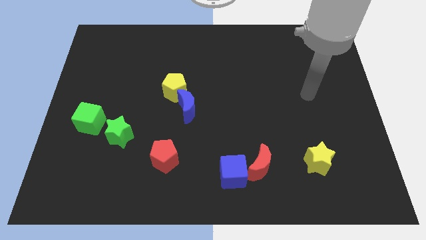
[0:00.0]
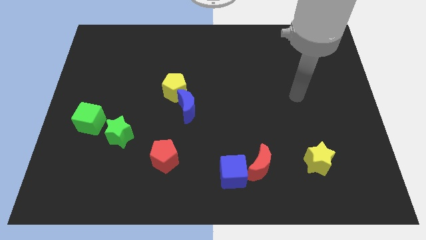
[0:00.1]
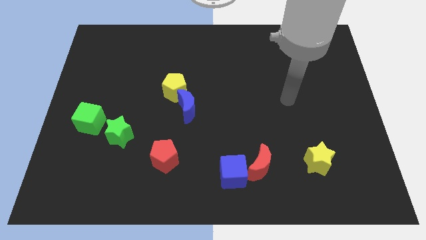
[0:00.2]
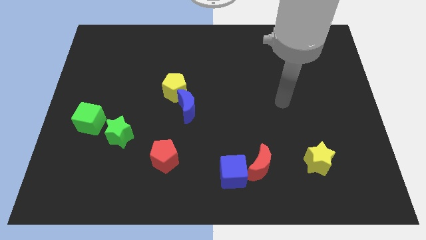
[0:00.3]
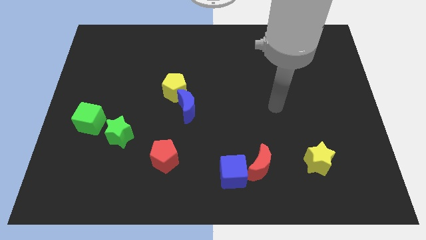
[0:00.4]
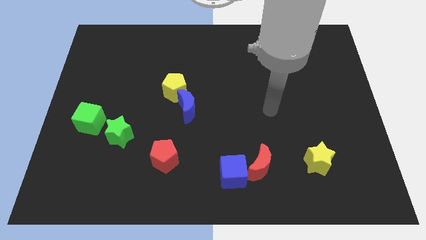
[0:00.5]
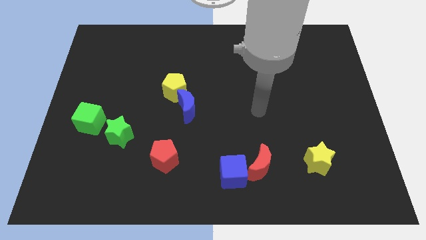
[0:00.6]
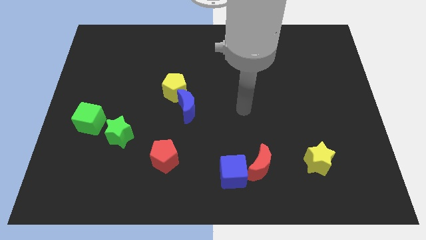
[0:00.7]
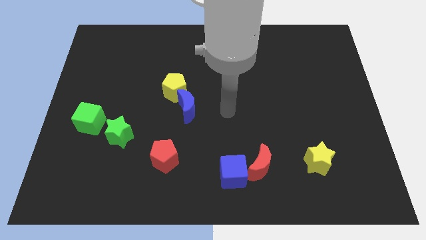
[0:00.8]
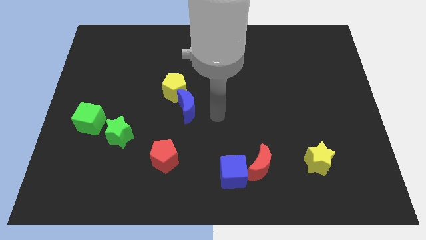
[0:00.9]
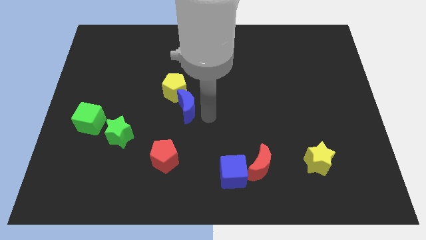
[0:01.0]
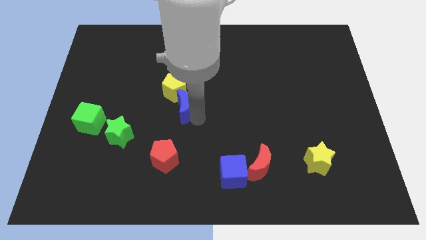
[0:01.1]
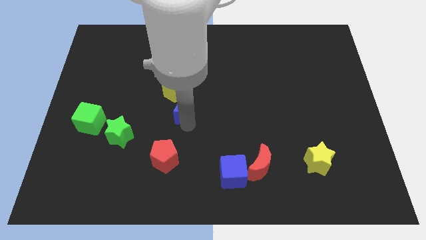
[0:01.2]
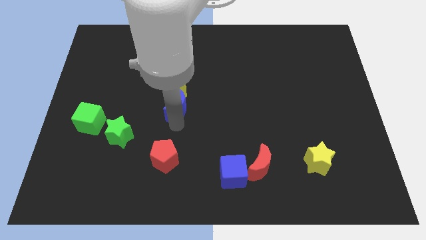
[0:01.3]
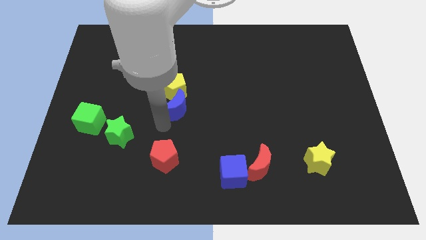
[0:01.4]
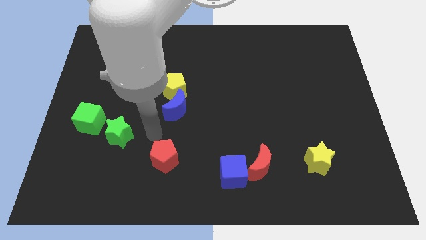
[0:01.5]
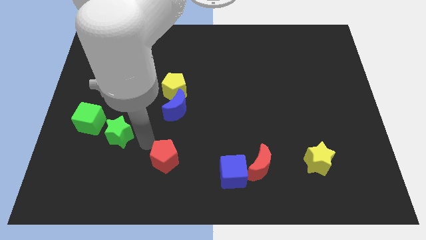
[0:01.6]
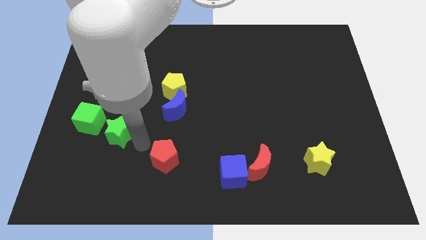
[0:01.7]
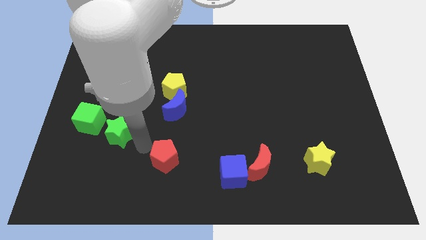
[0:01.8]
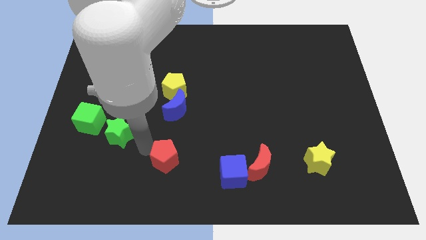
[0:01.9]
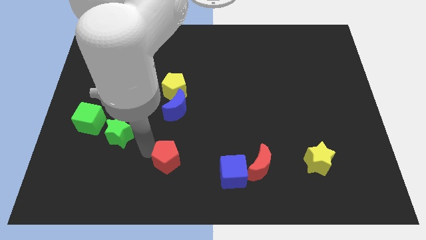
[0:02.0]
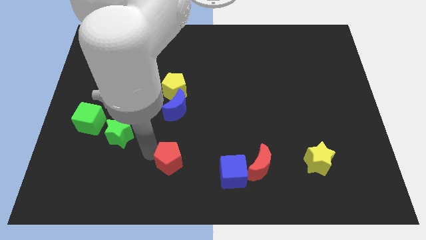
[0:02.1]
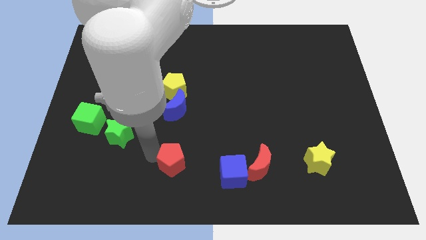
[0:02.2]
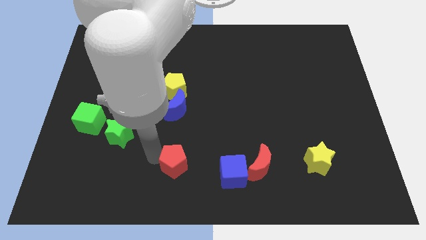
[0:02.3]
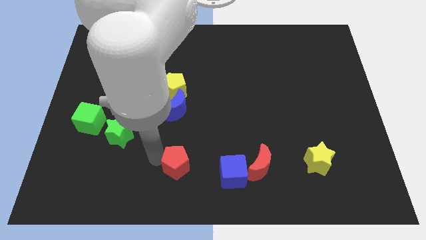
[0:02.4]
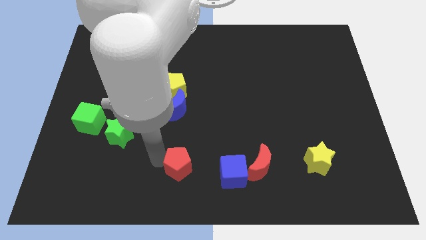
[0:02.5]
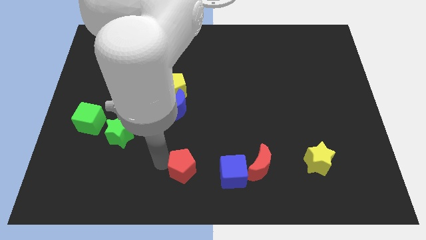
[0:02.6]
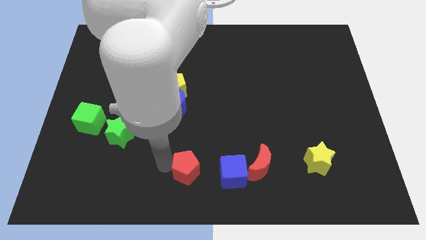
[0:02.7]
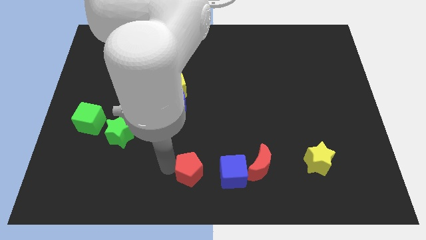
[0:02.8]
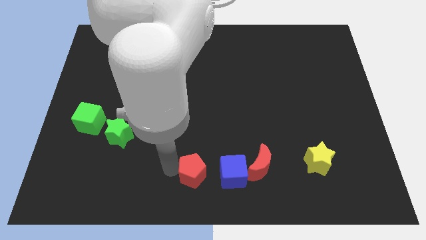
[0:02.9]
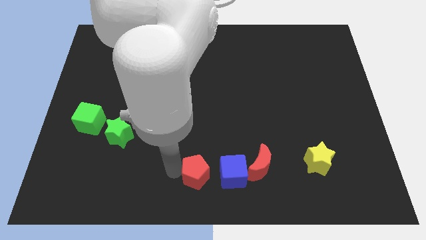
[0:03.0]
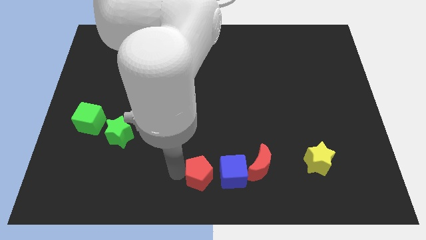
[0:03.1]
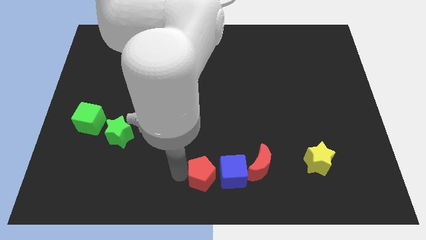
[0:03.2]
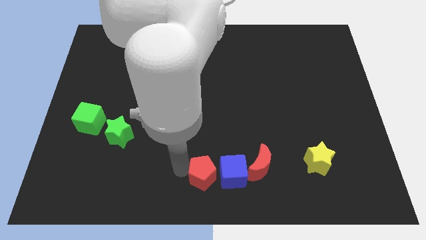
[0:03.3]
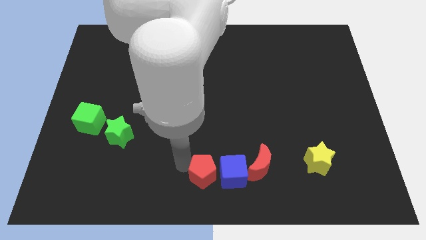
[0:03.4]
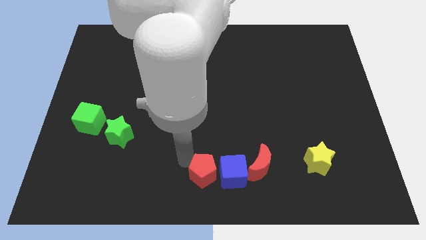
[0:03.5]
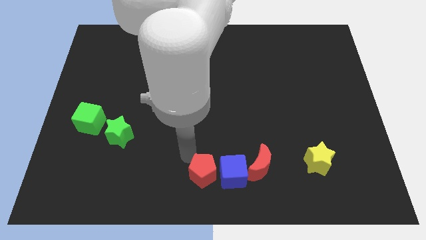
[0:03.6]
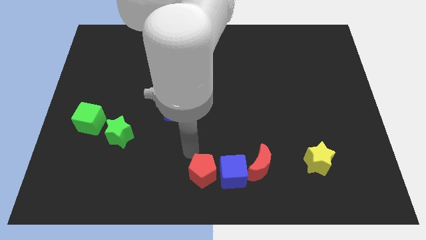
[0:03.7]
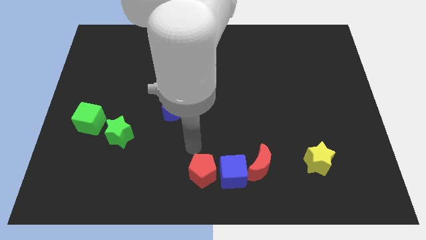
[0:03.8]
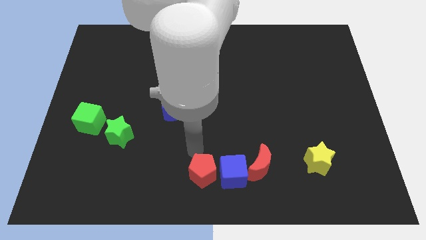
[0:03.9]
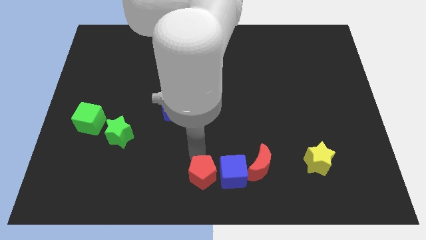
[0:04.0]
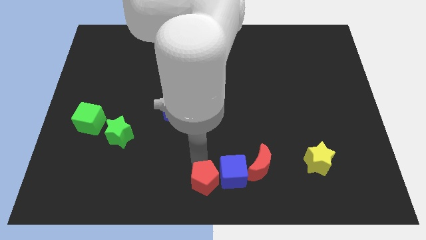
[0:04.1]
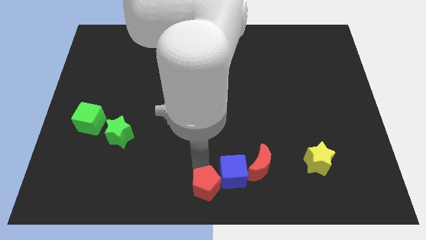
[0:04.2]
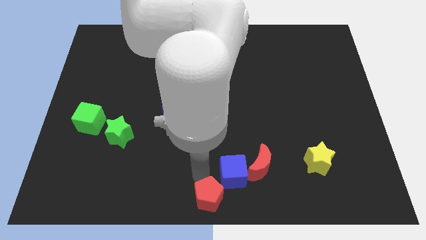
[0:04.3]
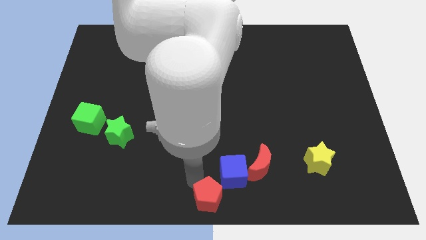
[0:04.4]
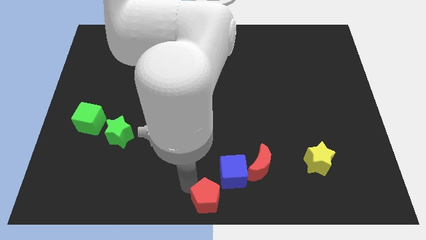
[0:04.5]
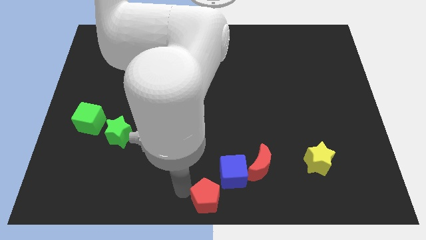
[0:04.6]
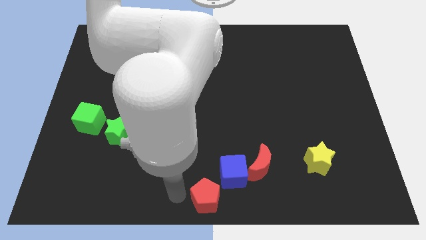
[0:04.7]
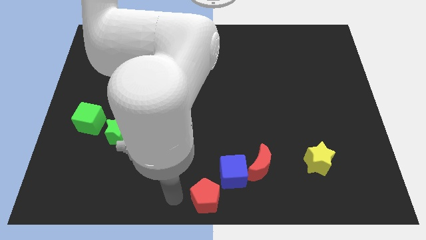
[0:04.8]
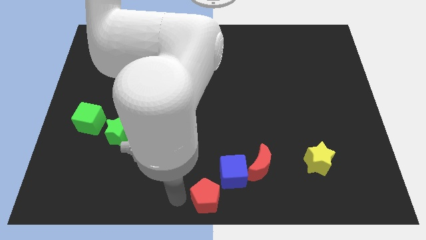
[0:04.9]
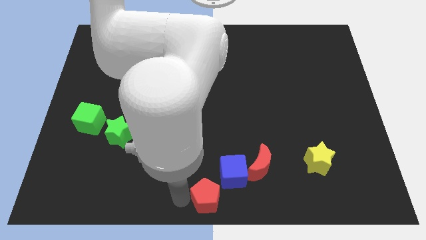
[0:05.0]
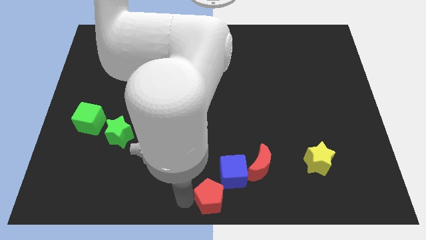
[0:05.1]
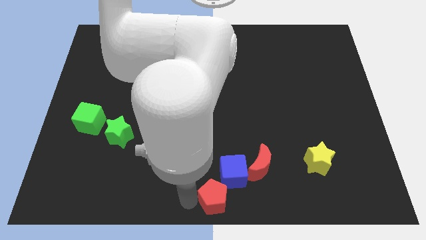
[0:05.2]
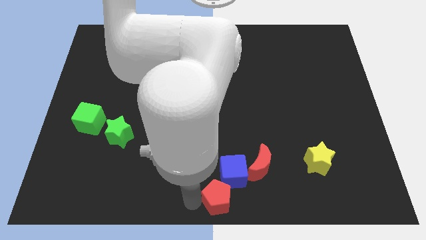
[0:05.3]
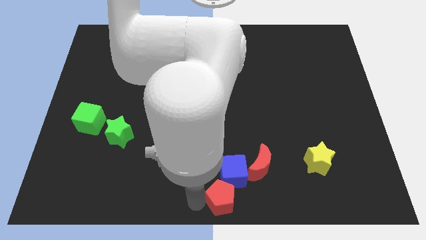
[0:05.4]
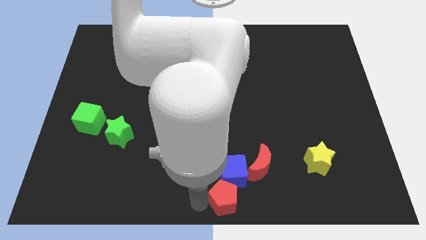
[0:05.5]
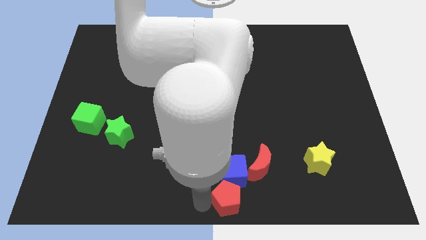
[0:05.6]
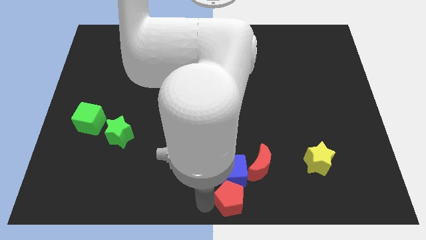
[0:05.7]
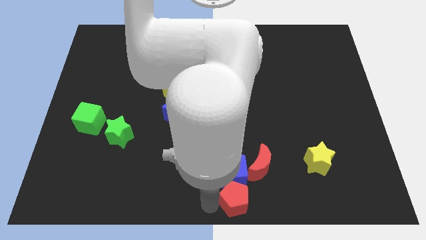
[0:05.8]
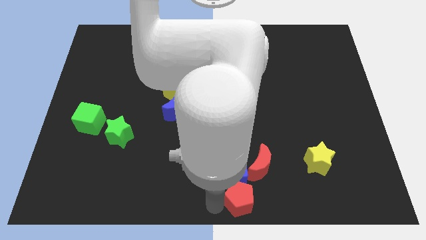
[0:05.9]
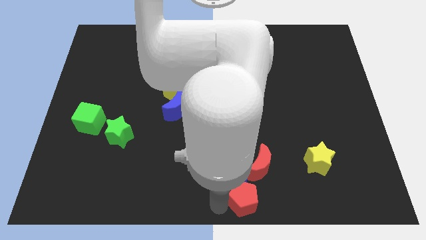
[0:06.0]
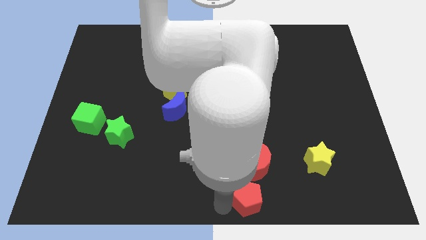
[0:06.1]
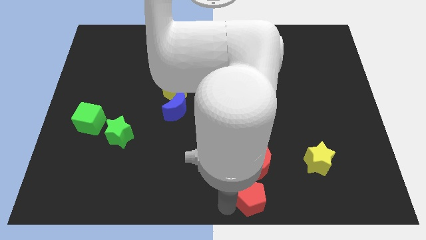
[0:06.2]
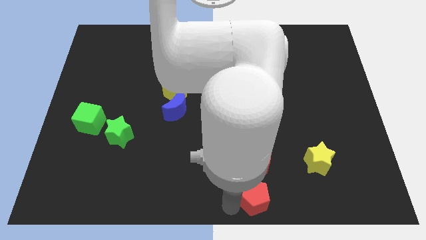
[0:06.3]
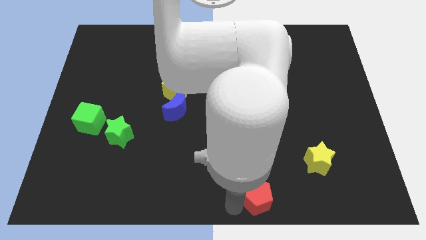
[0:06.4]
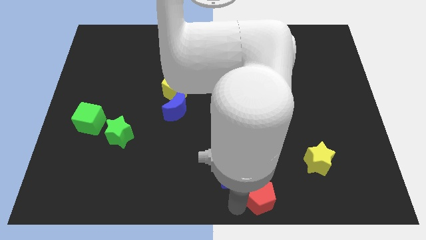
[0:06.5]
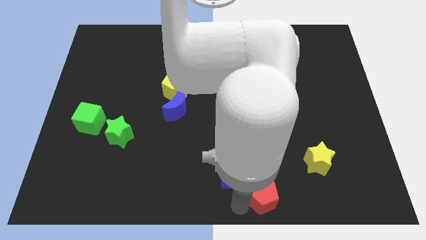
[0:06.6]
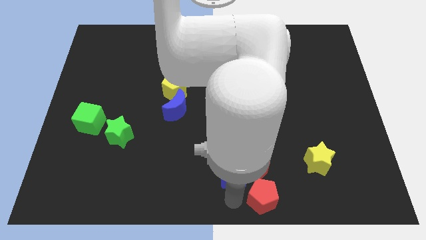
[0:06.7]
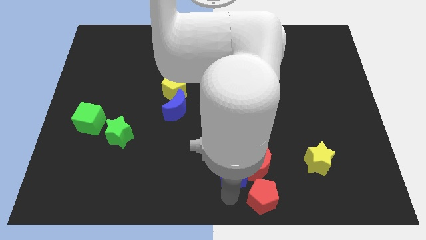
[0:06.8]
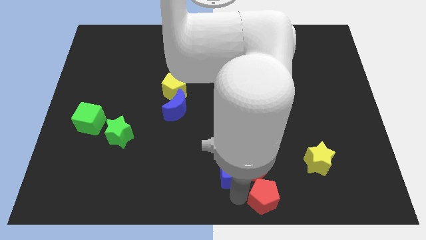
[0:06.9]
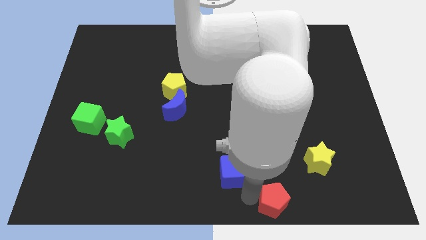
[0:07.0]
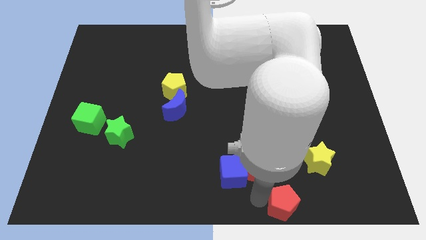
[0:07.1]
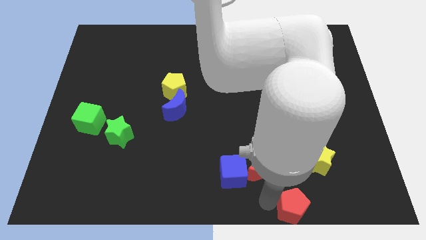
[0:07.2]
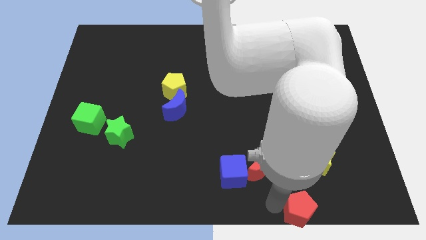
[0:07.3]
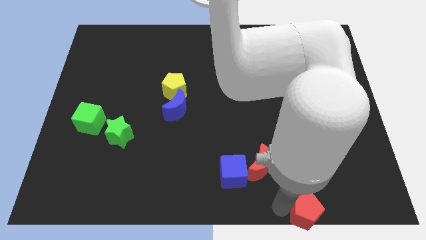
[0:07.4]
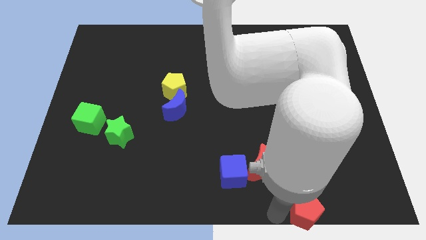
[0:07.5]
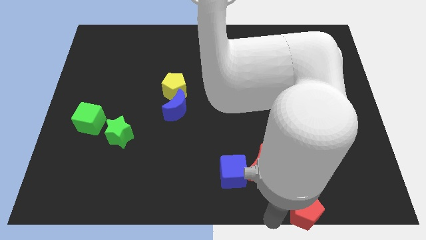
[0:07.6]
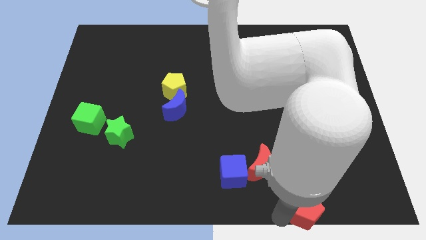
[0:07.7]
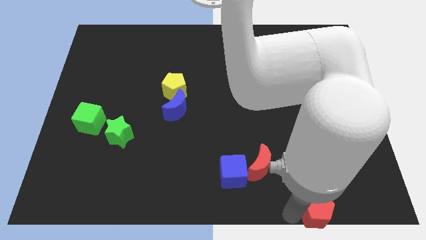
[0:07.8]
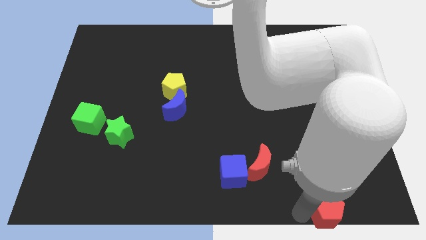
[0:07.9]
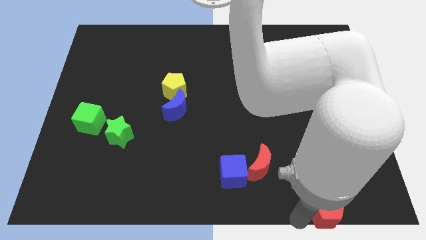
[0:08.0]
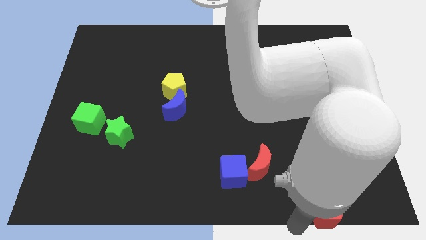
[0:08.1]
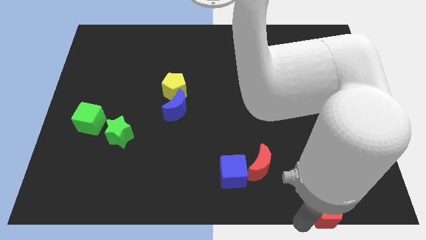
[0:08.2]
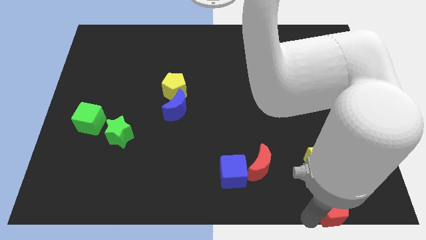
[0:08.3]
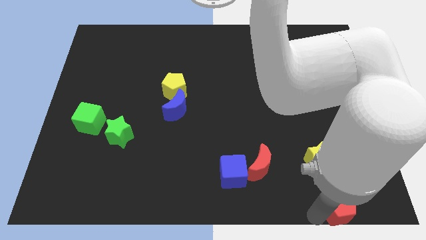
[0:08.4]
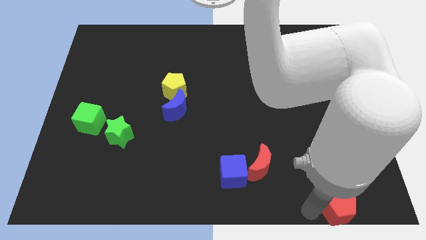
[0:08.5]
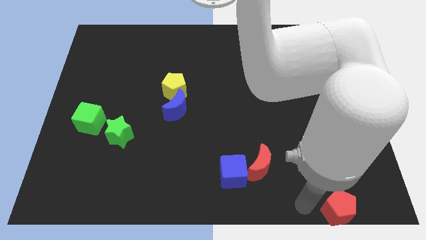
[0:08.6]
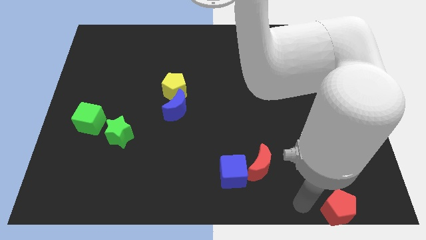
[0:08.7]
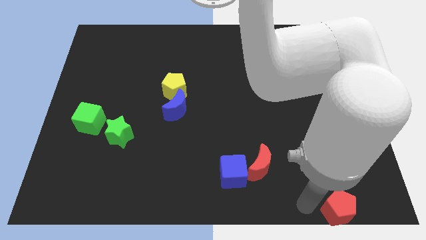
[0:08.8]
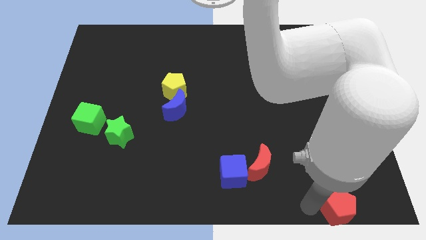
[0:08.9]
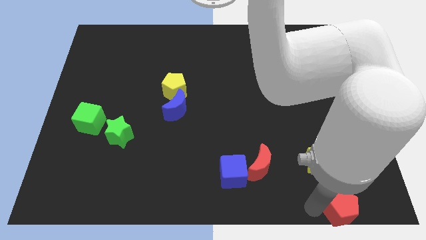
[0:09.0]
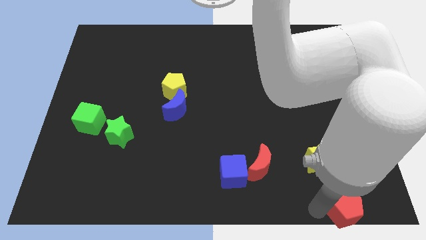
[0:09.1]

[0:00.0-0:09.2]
put the red pentagon to the bottom right of the board
